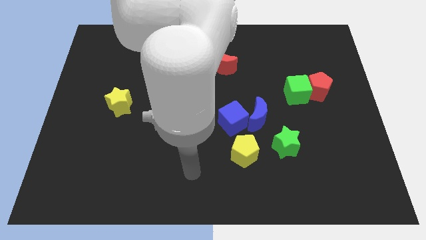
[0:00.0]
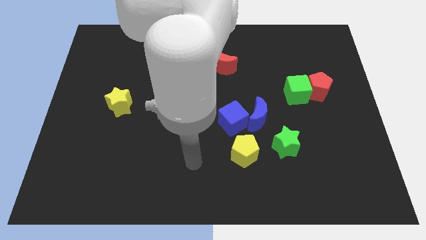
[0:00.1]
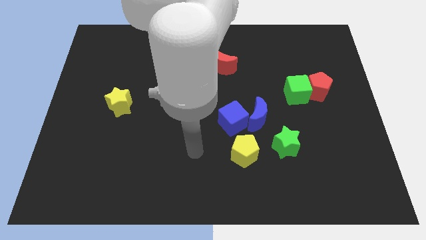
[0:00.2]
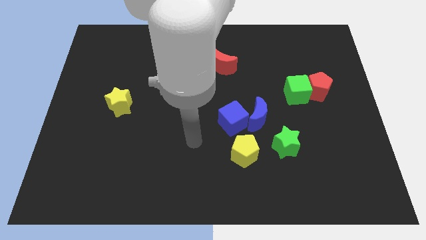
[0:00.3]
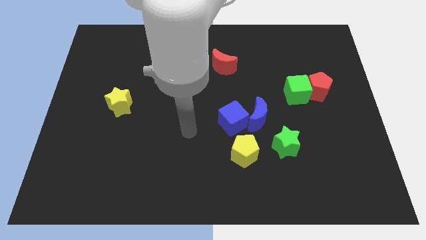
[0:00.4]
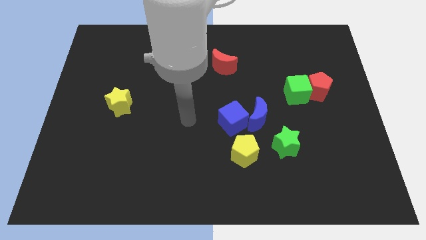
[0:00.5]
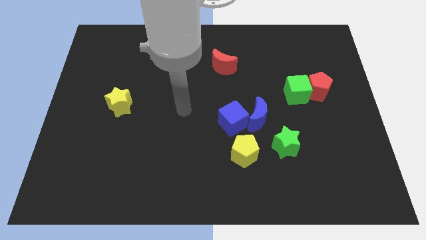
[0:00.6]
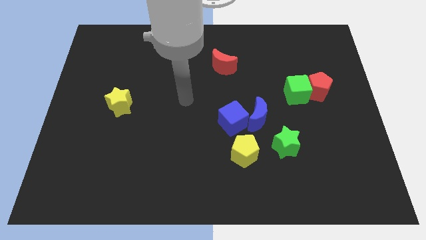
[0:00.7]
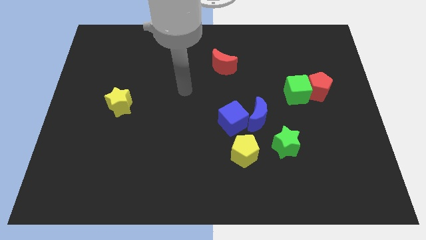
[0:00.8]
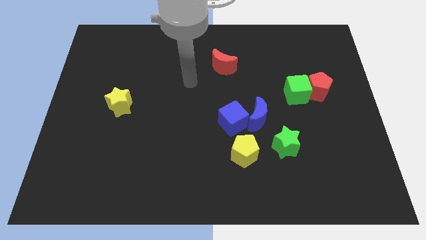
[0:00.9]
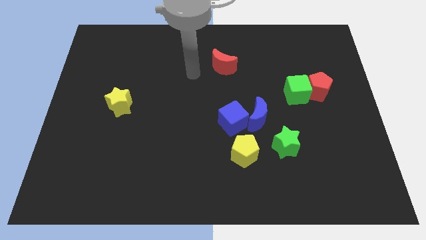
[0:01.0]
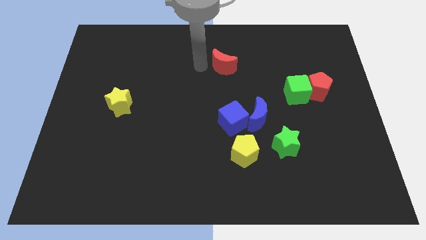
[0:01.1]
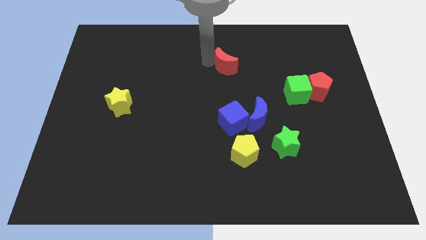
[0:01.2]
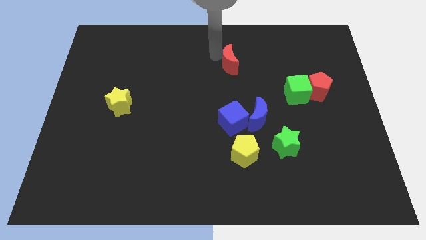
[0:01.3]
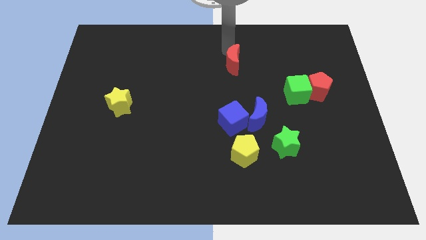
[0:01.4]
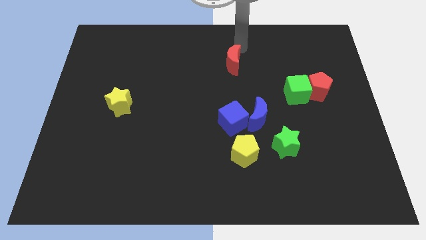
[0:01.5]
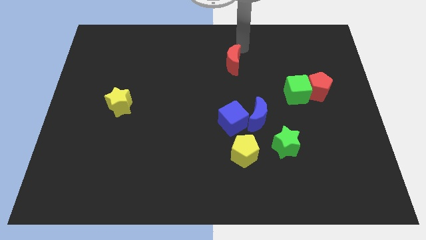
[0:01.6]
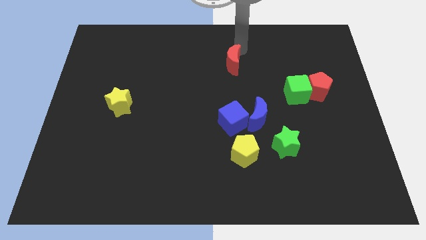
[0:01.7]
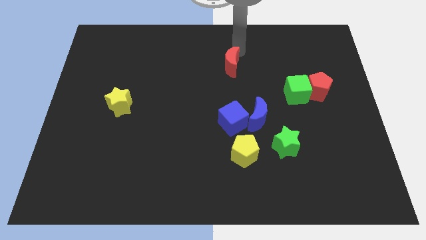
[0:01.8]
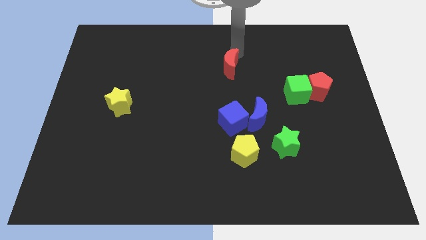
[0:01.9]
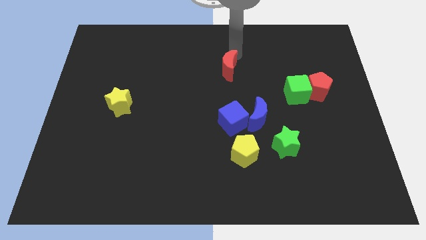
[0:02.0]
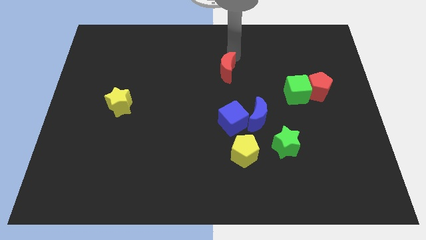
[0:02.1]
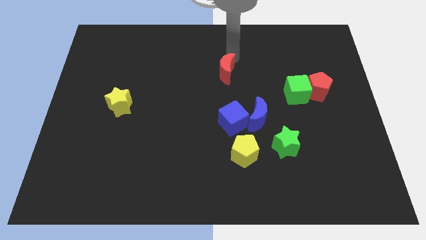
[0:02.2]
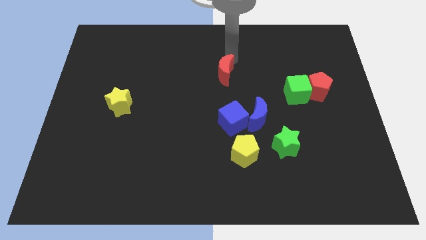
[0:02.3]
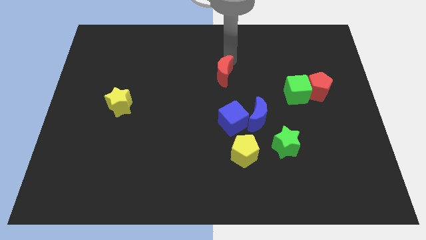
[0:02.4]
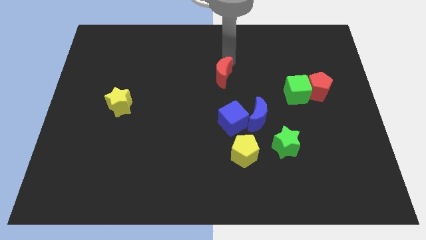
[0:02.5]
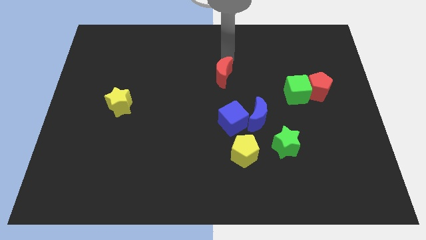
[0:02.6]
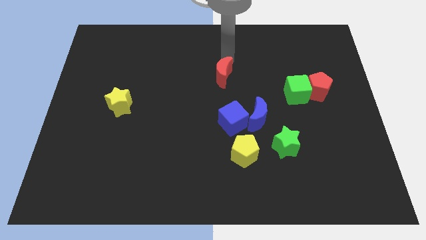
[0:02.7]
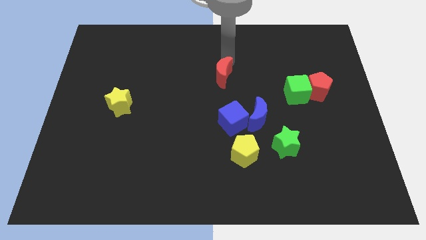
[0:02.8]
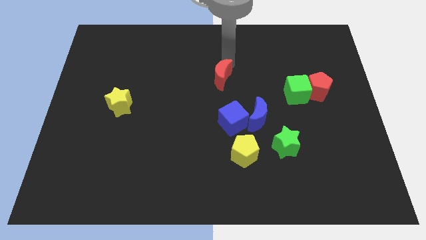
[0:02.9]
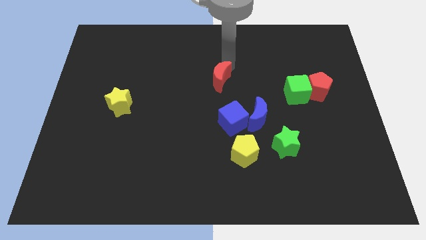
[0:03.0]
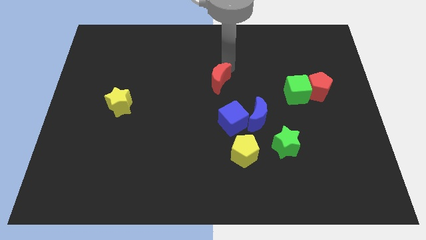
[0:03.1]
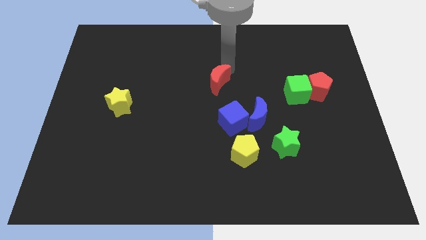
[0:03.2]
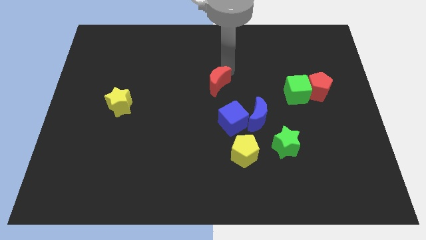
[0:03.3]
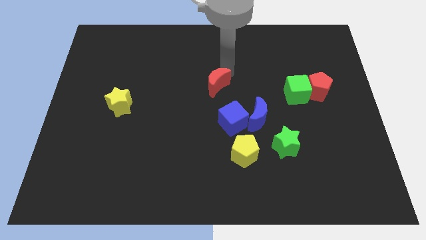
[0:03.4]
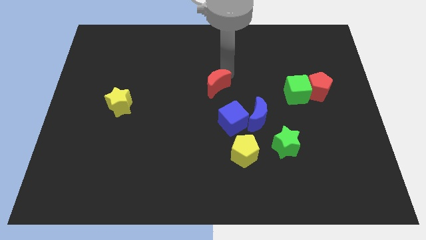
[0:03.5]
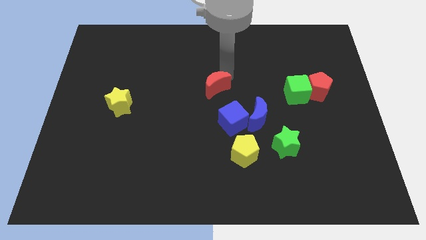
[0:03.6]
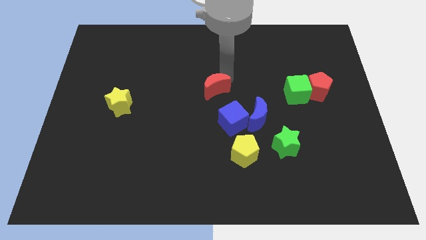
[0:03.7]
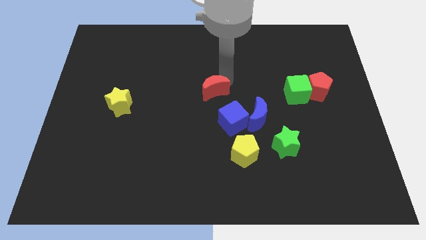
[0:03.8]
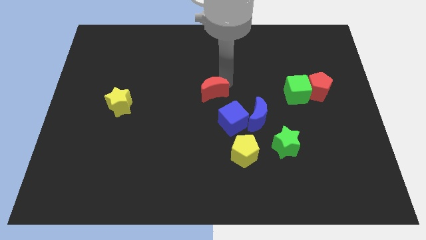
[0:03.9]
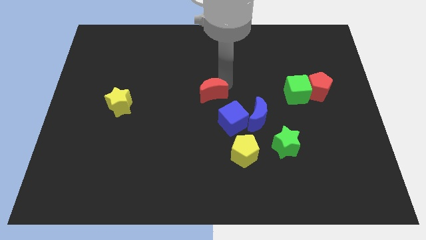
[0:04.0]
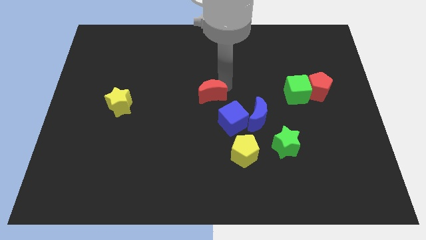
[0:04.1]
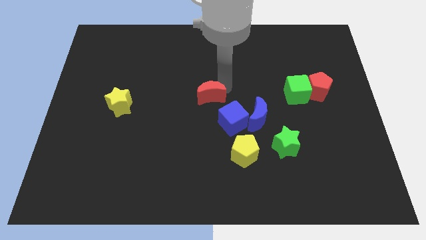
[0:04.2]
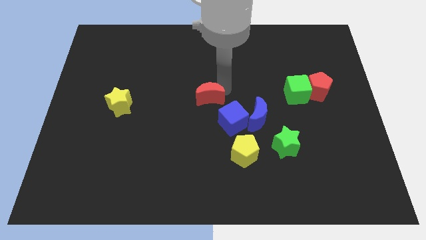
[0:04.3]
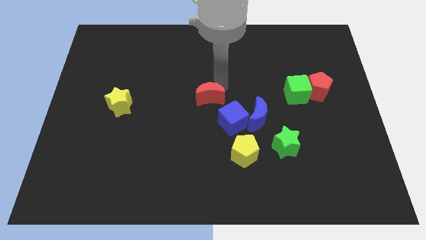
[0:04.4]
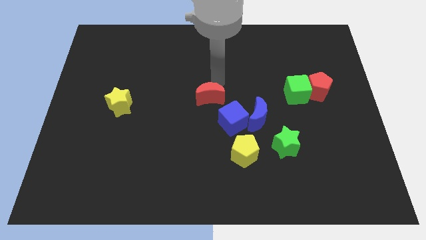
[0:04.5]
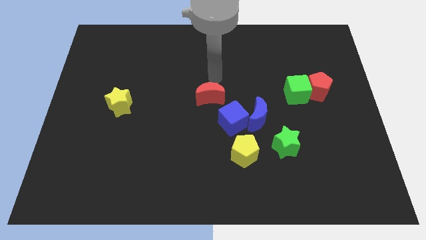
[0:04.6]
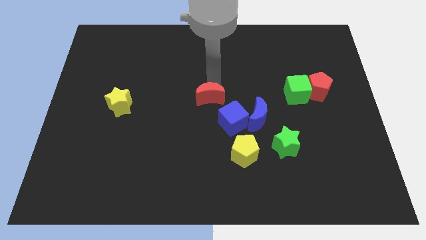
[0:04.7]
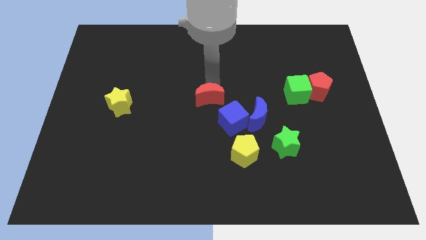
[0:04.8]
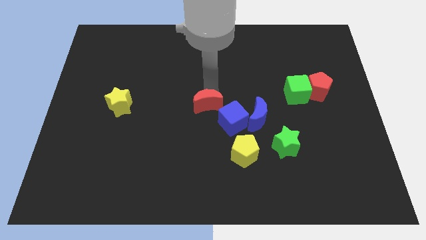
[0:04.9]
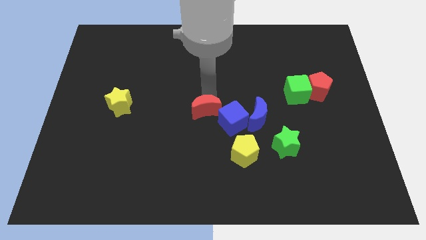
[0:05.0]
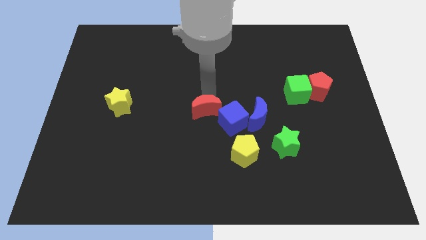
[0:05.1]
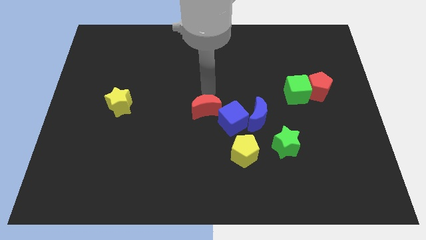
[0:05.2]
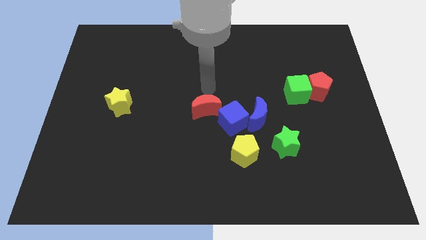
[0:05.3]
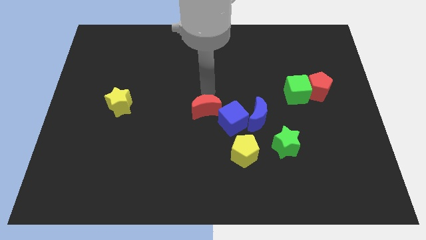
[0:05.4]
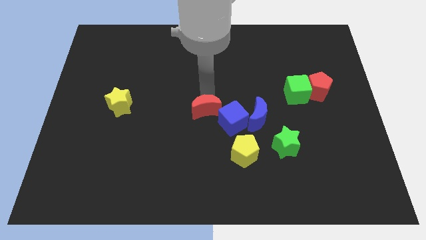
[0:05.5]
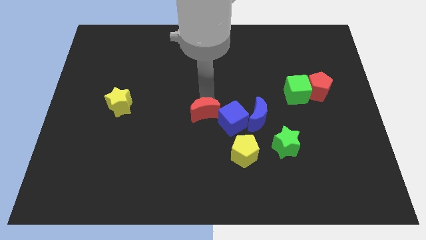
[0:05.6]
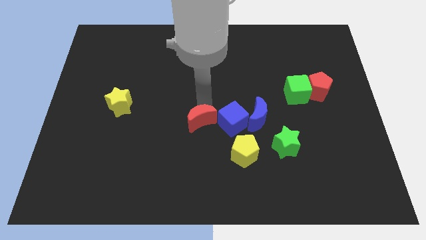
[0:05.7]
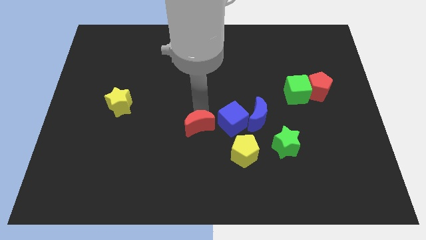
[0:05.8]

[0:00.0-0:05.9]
push the red moon diagonally down and to the left of the blue cube

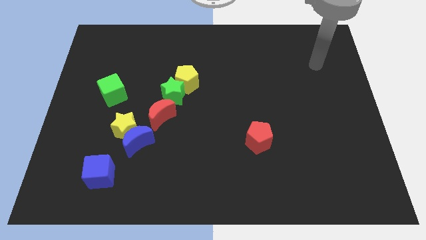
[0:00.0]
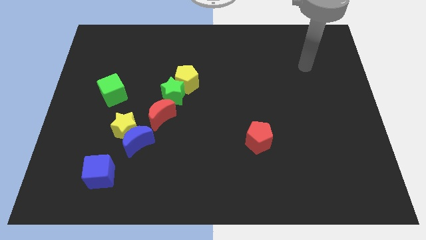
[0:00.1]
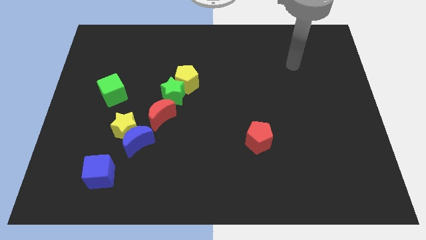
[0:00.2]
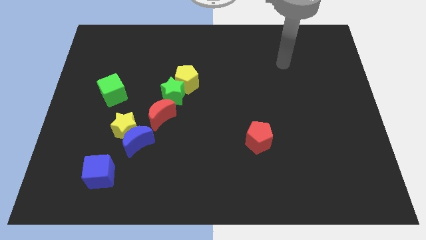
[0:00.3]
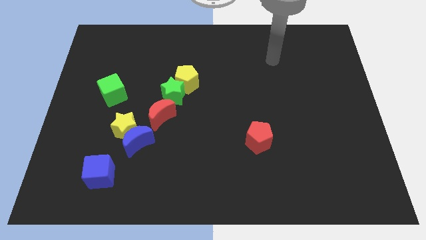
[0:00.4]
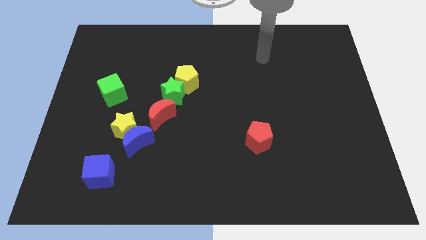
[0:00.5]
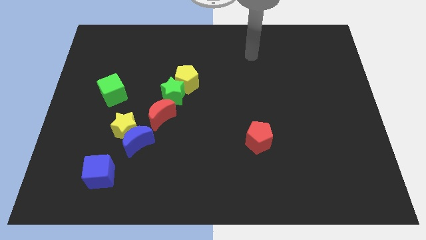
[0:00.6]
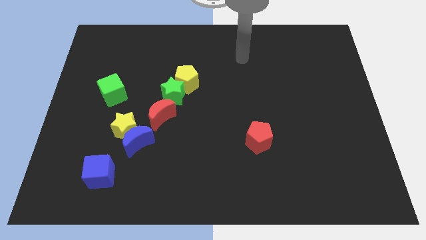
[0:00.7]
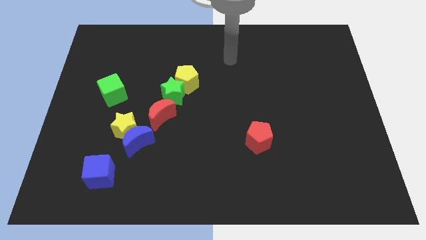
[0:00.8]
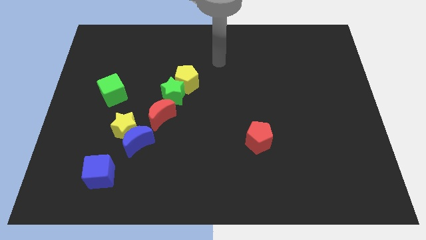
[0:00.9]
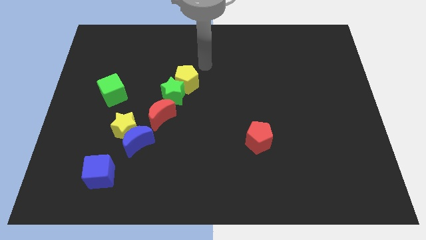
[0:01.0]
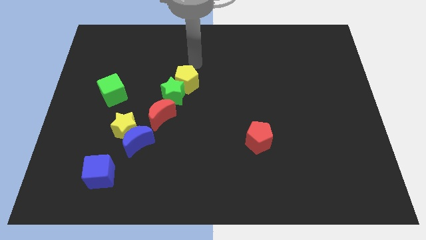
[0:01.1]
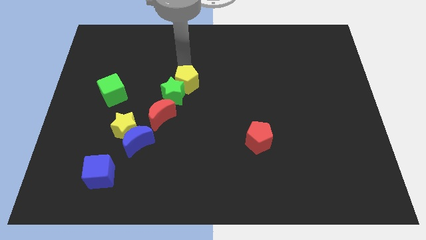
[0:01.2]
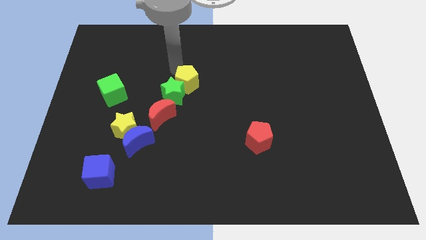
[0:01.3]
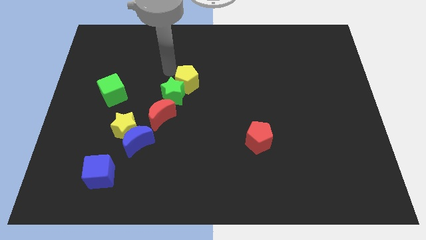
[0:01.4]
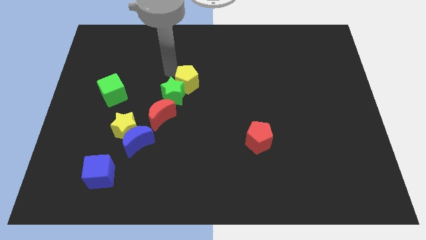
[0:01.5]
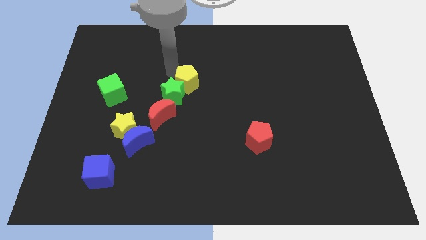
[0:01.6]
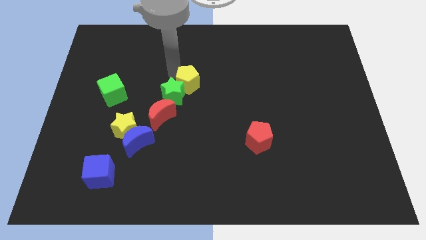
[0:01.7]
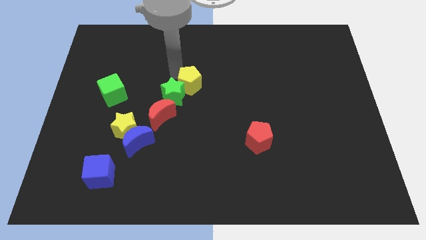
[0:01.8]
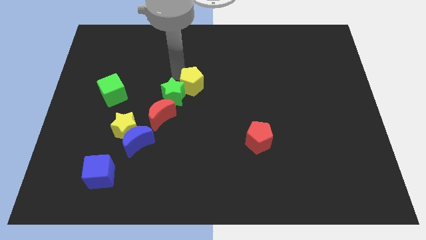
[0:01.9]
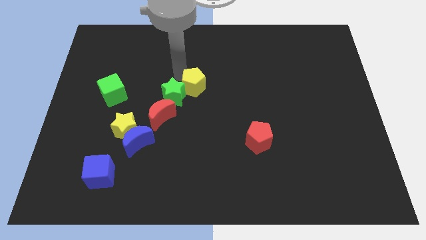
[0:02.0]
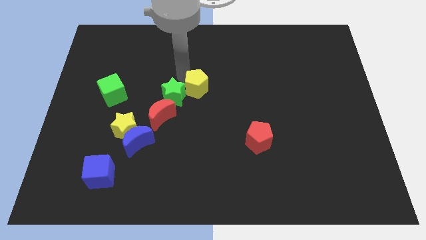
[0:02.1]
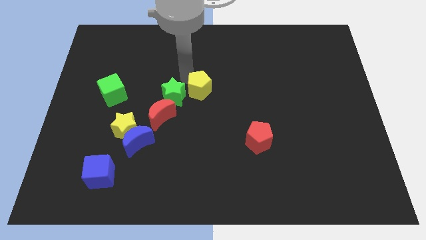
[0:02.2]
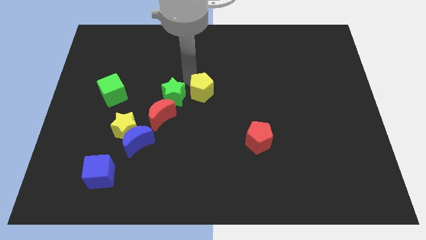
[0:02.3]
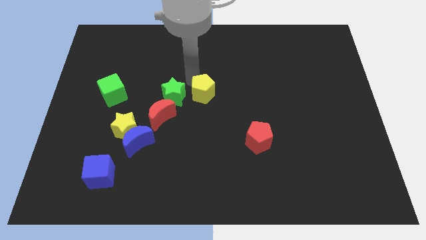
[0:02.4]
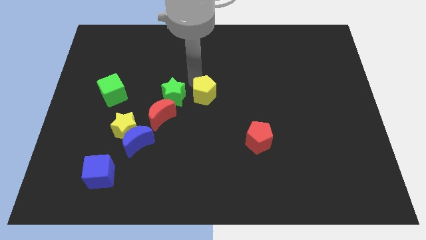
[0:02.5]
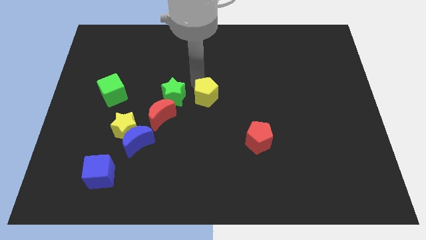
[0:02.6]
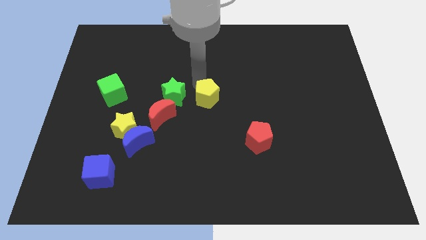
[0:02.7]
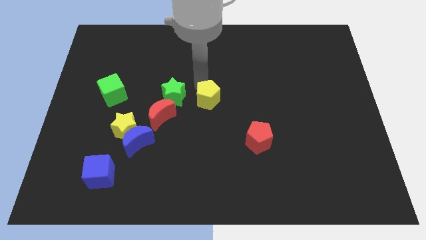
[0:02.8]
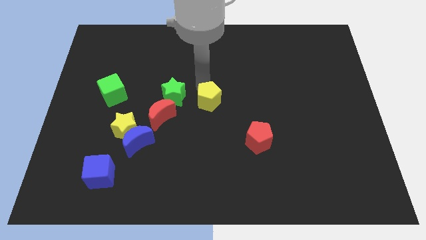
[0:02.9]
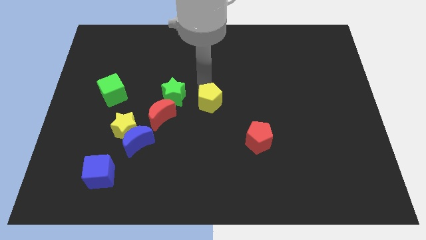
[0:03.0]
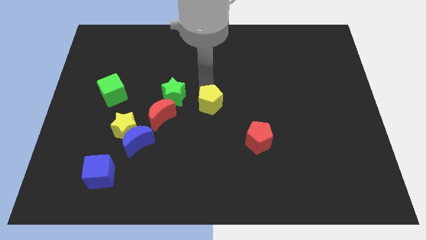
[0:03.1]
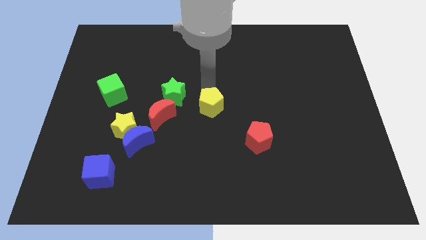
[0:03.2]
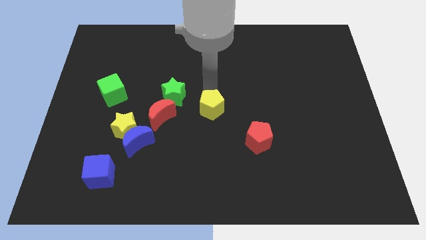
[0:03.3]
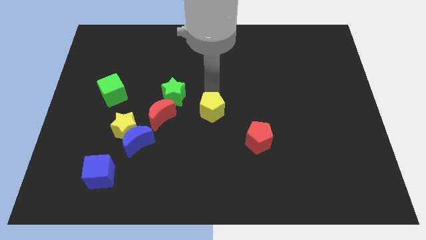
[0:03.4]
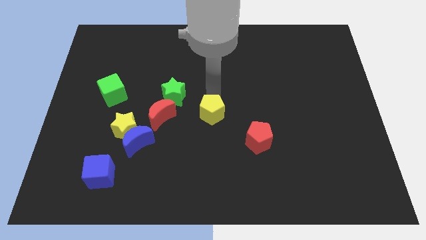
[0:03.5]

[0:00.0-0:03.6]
put the yellow pentagon to the top left side of the red pentagon
